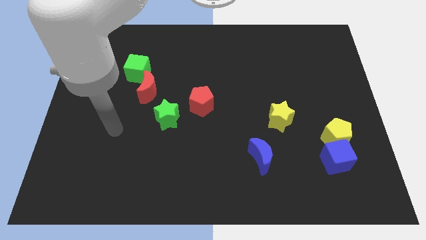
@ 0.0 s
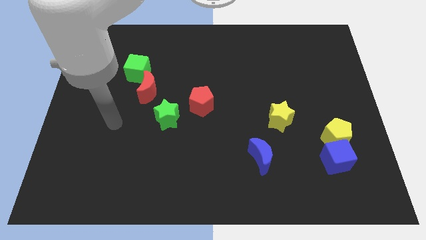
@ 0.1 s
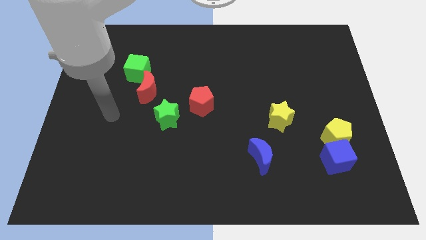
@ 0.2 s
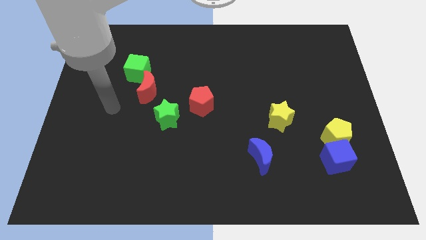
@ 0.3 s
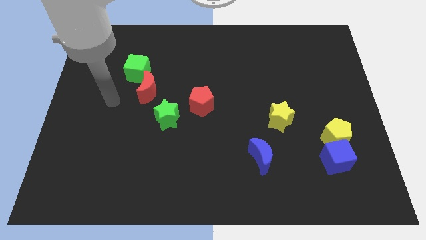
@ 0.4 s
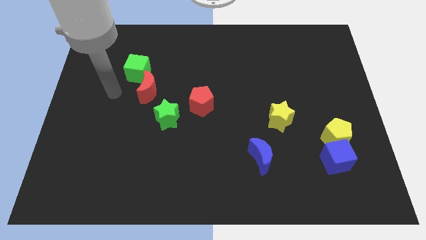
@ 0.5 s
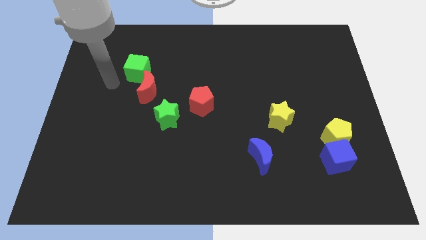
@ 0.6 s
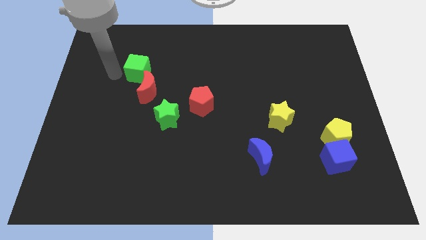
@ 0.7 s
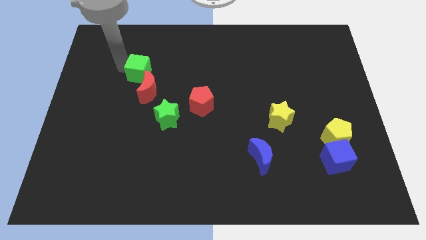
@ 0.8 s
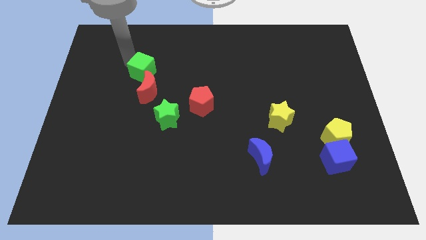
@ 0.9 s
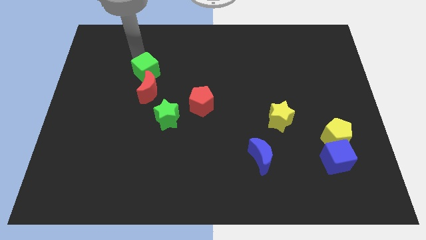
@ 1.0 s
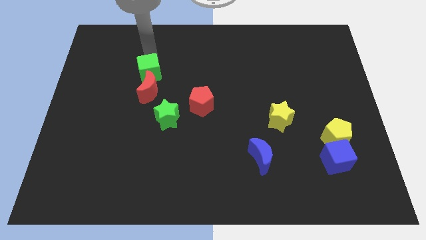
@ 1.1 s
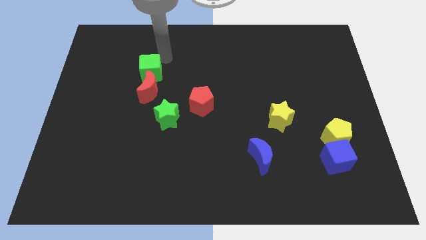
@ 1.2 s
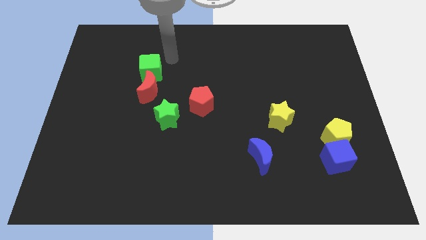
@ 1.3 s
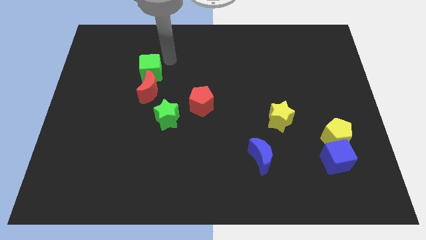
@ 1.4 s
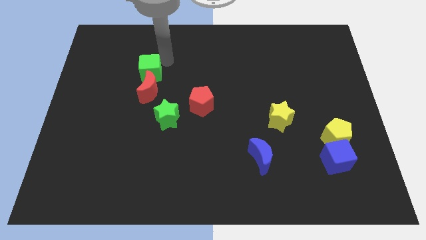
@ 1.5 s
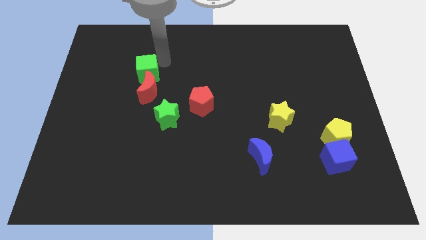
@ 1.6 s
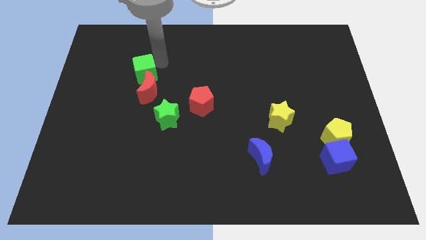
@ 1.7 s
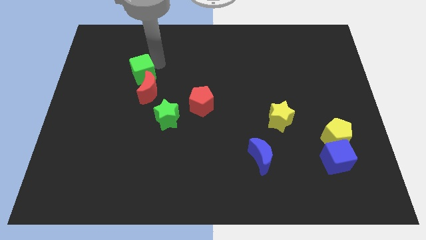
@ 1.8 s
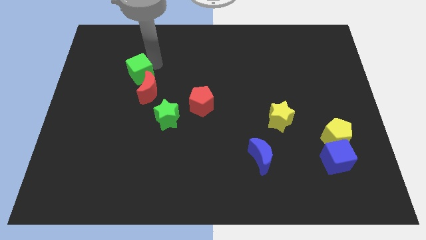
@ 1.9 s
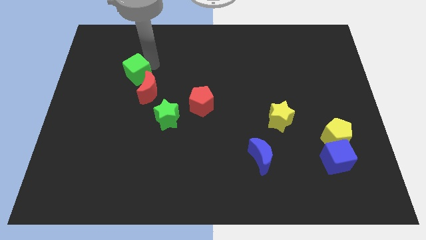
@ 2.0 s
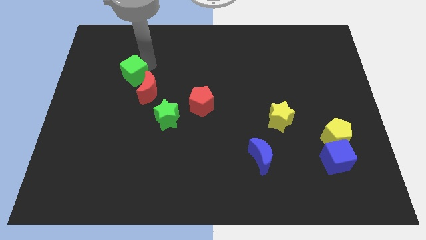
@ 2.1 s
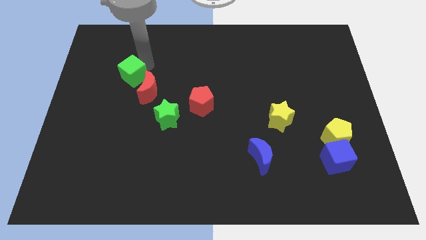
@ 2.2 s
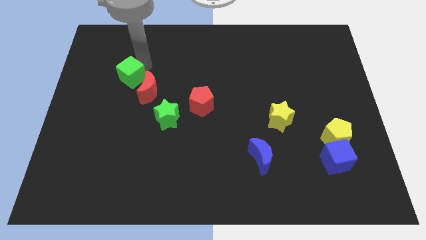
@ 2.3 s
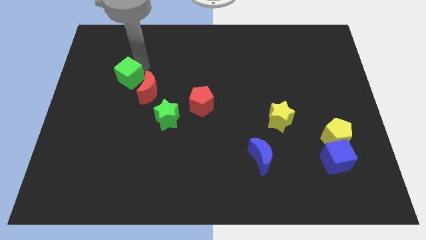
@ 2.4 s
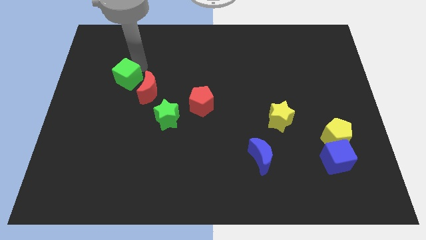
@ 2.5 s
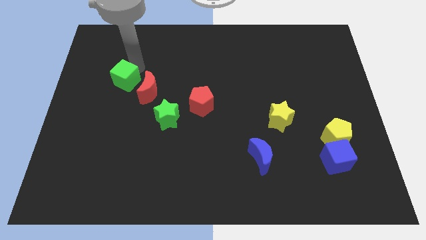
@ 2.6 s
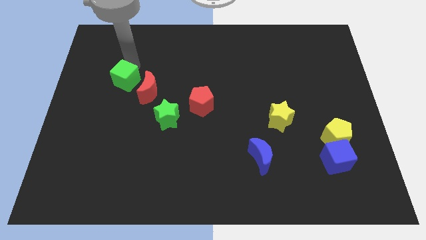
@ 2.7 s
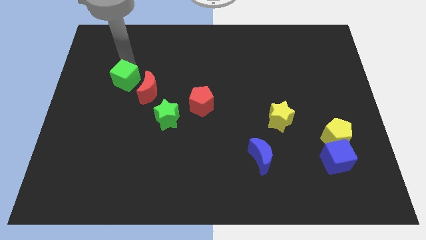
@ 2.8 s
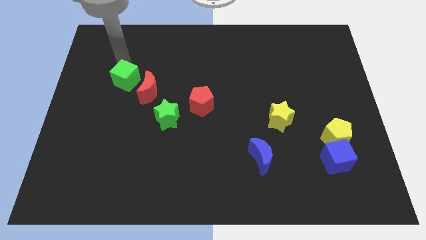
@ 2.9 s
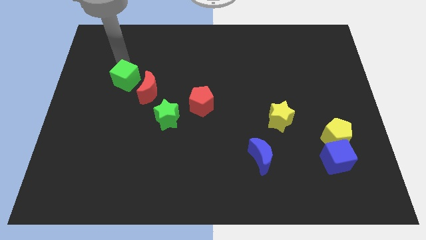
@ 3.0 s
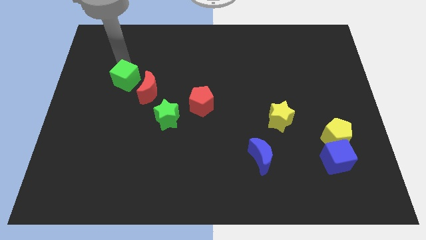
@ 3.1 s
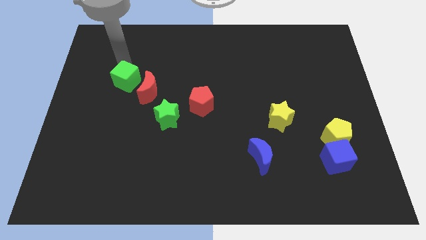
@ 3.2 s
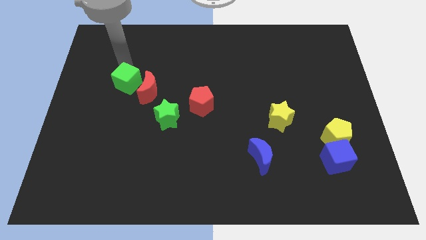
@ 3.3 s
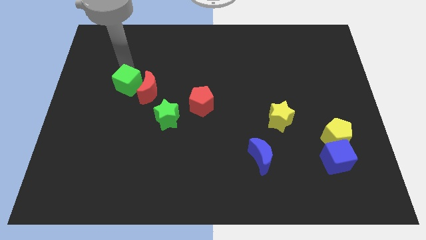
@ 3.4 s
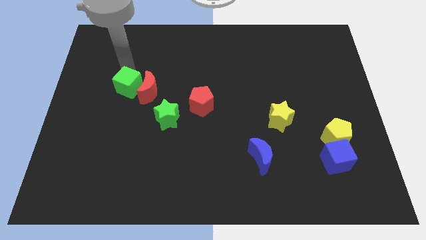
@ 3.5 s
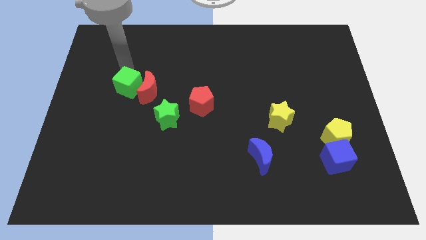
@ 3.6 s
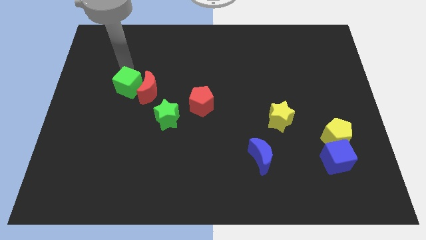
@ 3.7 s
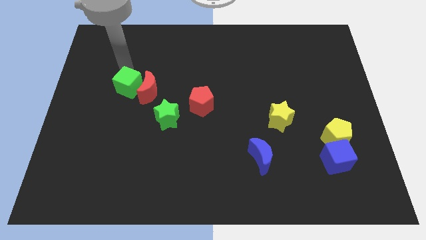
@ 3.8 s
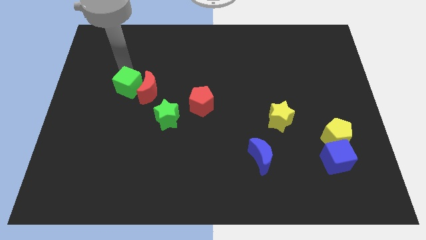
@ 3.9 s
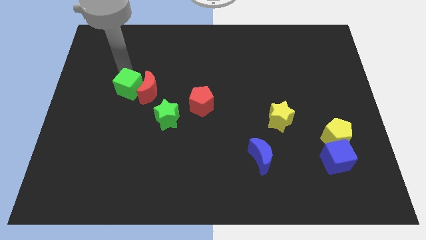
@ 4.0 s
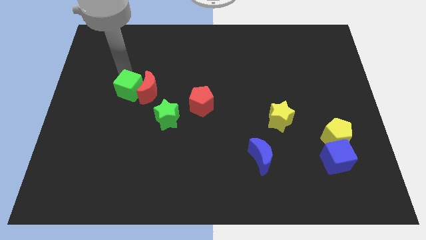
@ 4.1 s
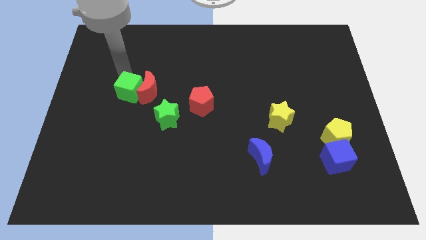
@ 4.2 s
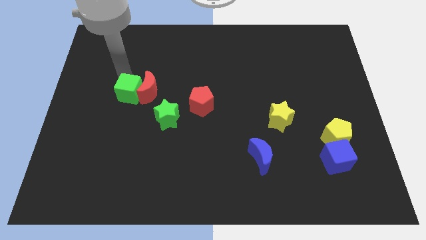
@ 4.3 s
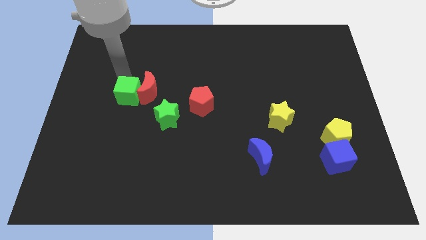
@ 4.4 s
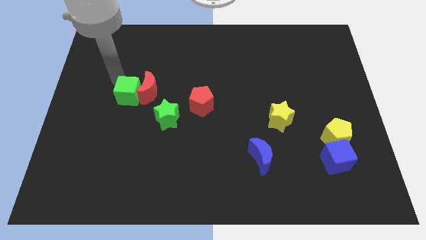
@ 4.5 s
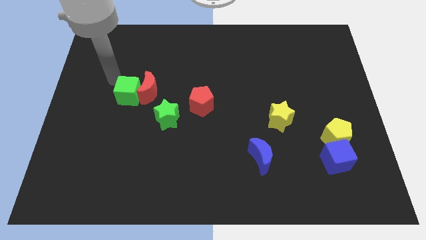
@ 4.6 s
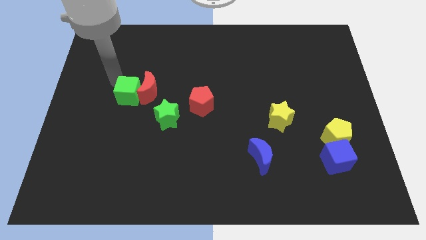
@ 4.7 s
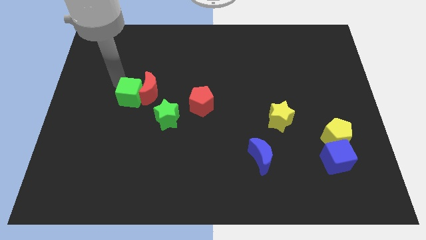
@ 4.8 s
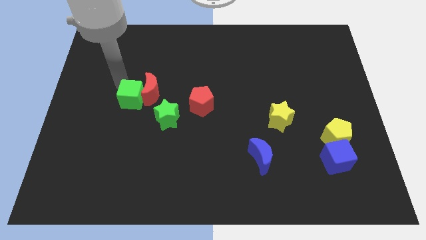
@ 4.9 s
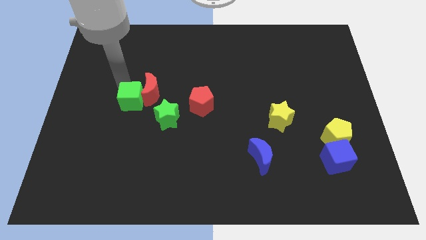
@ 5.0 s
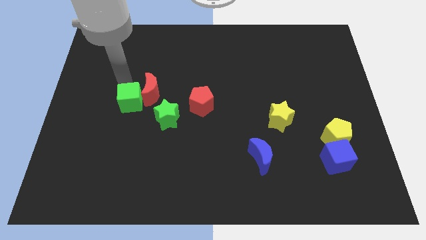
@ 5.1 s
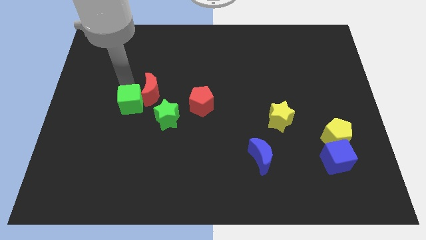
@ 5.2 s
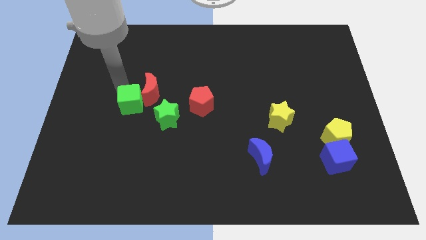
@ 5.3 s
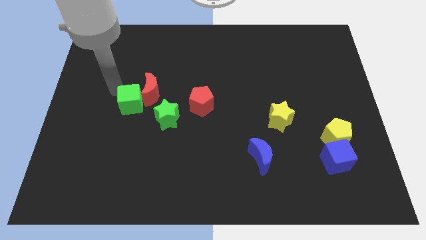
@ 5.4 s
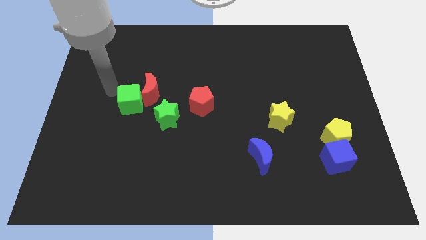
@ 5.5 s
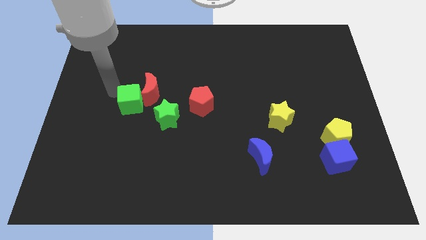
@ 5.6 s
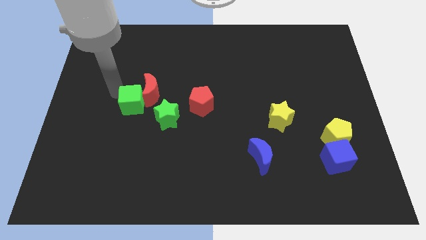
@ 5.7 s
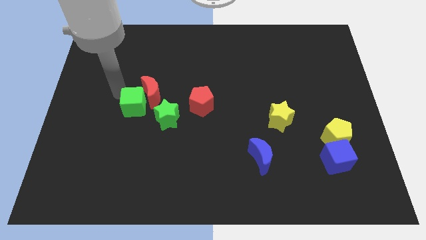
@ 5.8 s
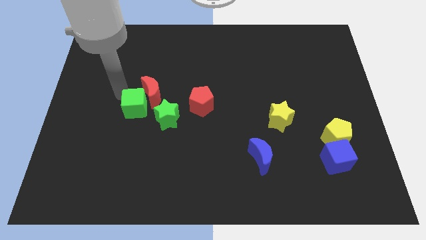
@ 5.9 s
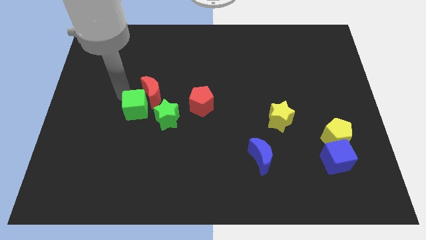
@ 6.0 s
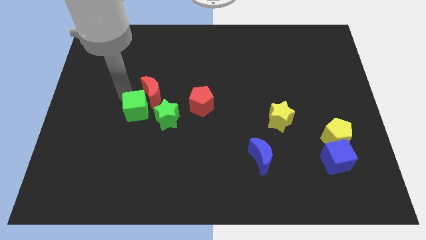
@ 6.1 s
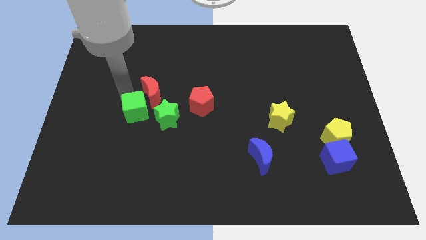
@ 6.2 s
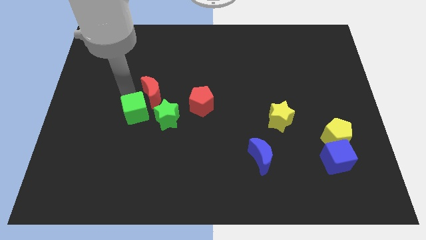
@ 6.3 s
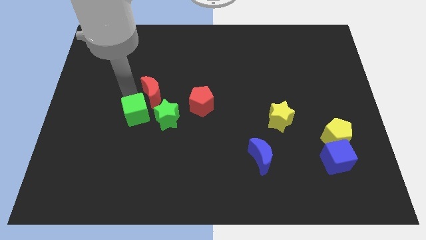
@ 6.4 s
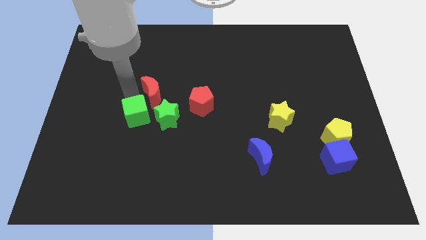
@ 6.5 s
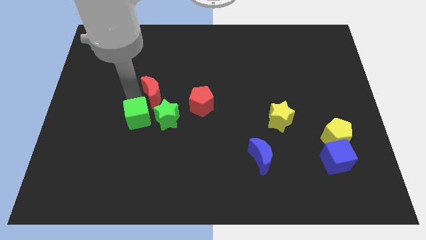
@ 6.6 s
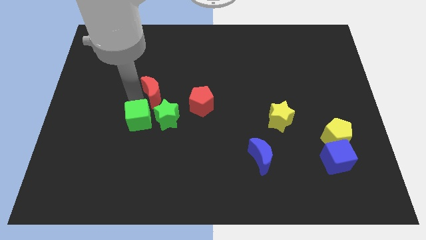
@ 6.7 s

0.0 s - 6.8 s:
put the green cube to the green star

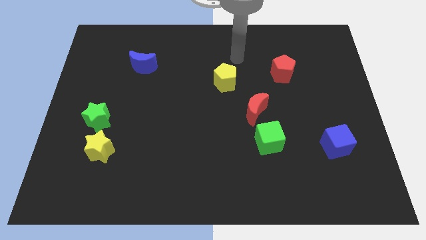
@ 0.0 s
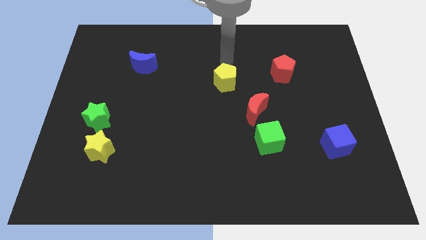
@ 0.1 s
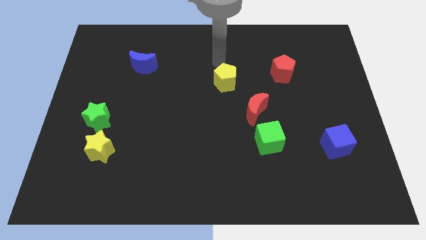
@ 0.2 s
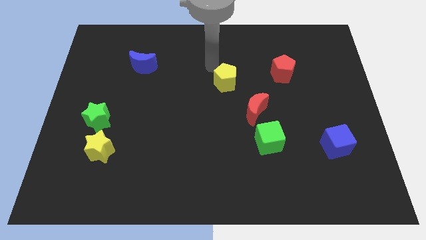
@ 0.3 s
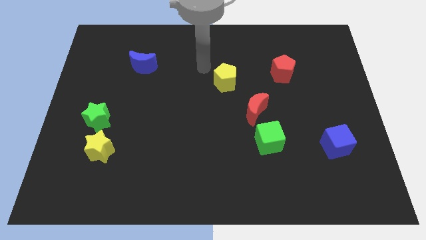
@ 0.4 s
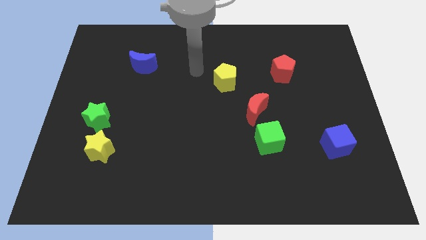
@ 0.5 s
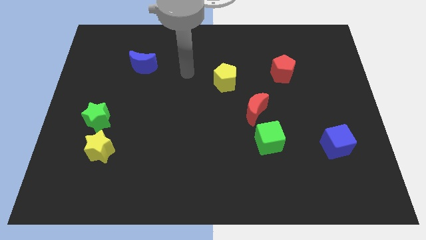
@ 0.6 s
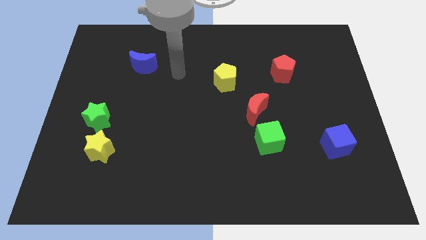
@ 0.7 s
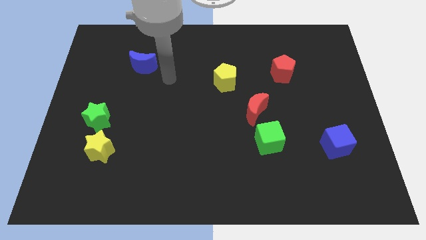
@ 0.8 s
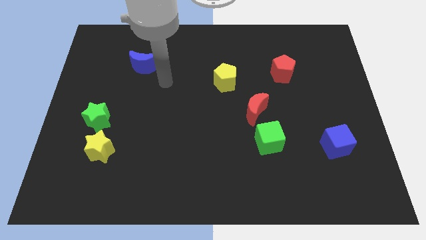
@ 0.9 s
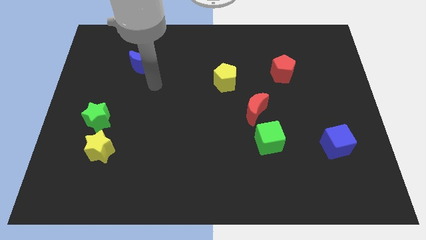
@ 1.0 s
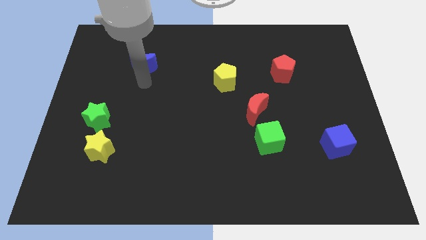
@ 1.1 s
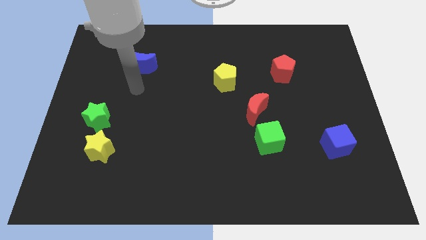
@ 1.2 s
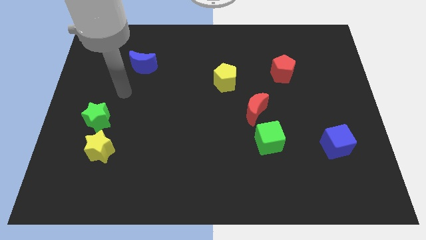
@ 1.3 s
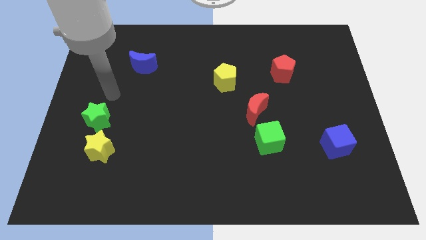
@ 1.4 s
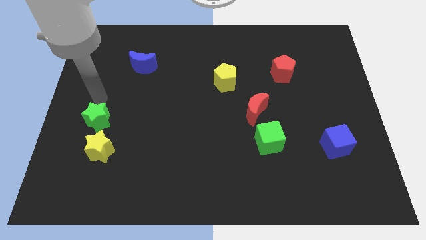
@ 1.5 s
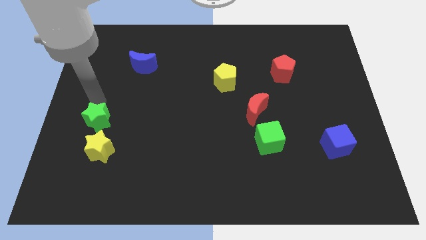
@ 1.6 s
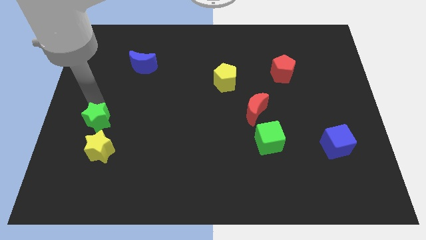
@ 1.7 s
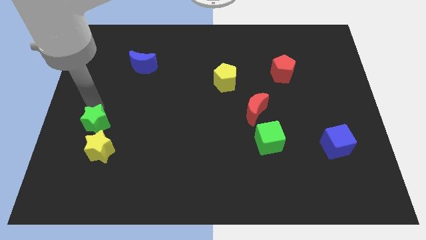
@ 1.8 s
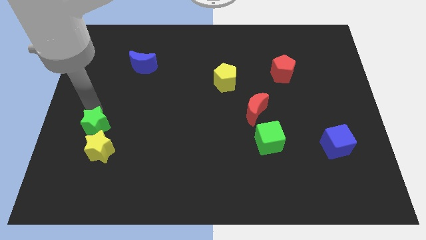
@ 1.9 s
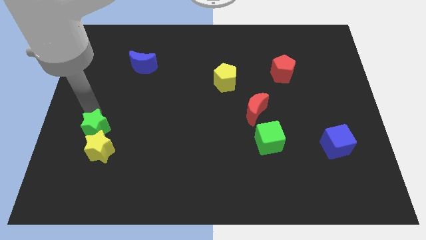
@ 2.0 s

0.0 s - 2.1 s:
put the green star close to the yellow star
